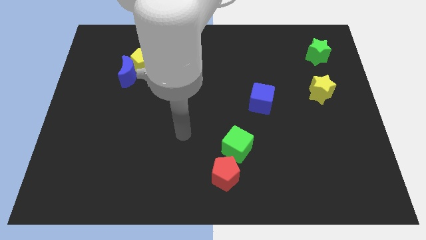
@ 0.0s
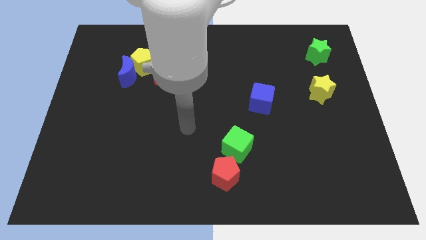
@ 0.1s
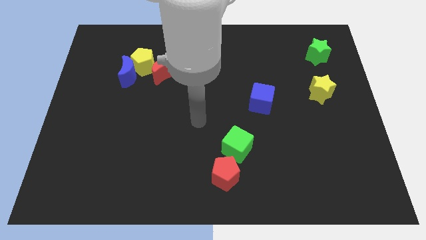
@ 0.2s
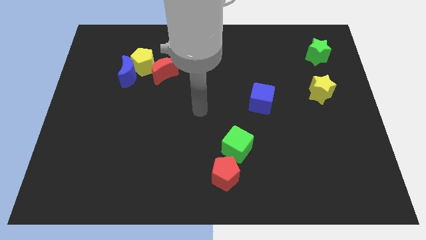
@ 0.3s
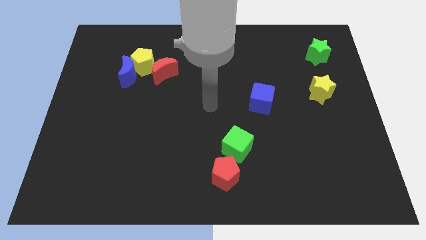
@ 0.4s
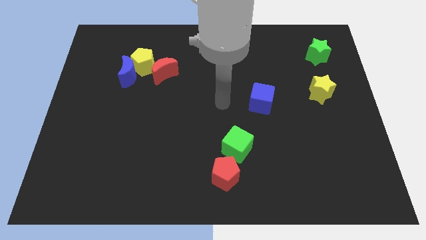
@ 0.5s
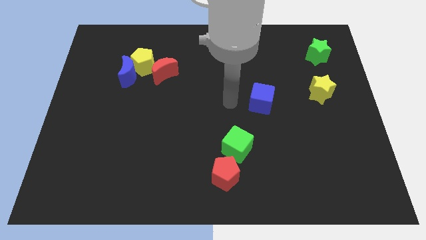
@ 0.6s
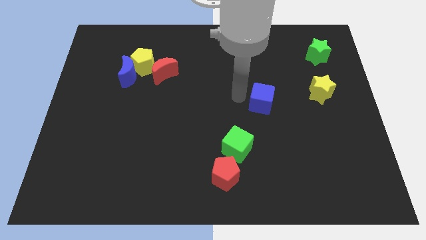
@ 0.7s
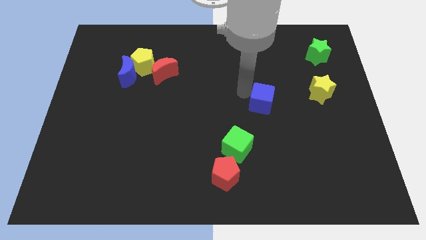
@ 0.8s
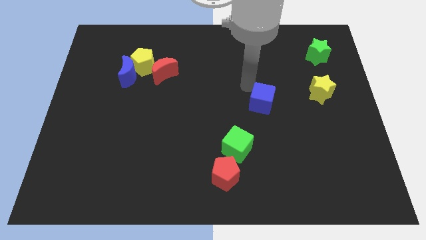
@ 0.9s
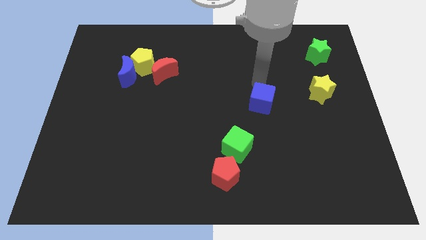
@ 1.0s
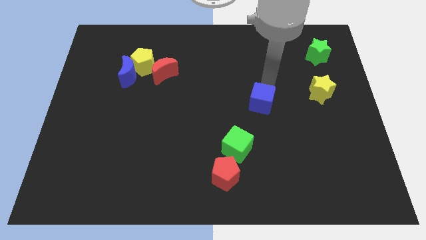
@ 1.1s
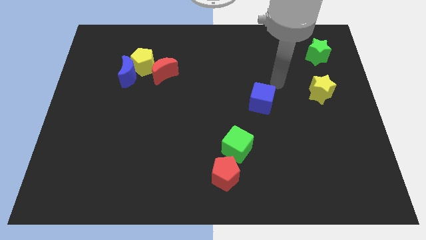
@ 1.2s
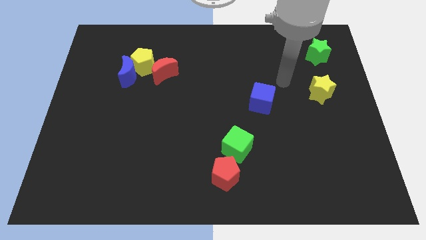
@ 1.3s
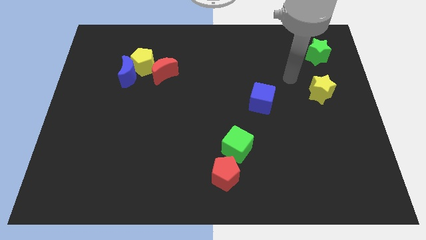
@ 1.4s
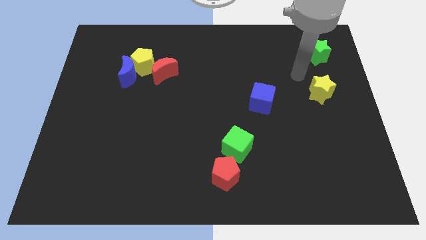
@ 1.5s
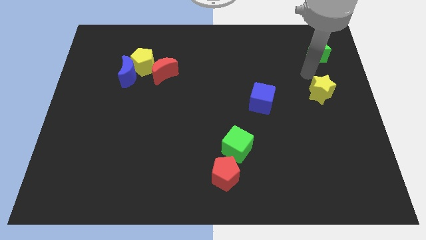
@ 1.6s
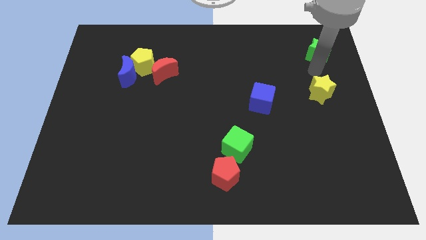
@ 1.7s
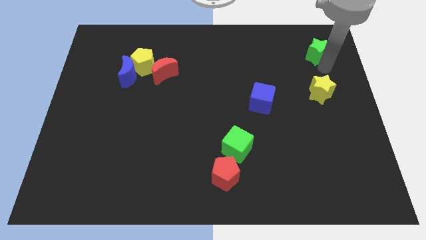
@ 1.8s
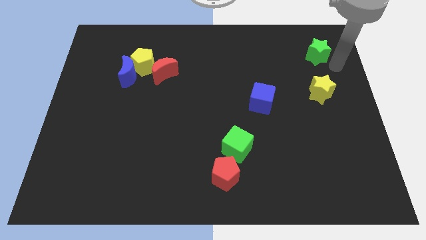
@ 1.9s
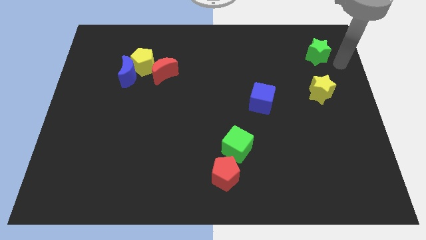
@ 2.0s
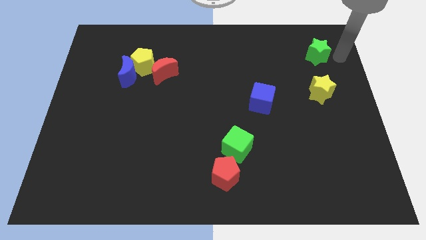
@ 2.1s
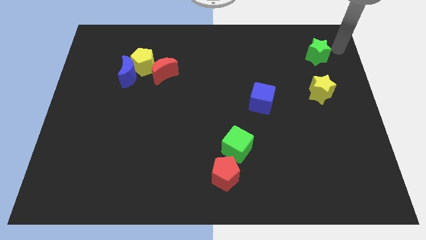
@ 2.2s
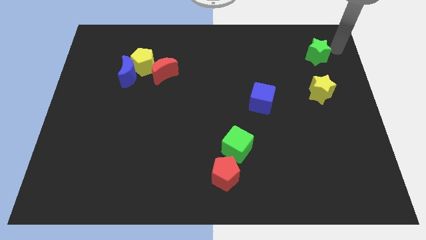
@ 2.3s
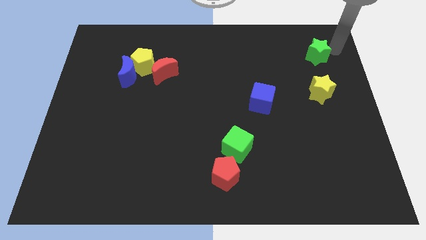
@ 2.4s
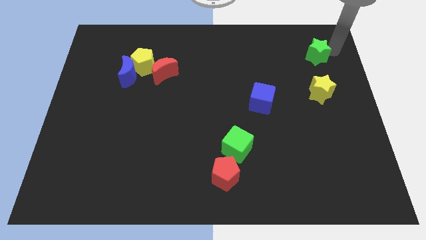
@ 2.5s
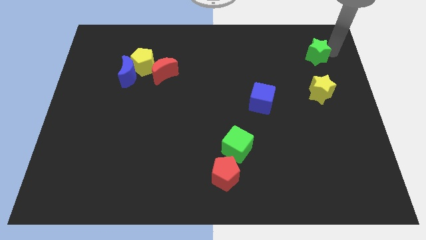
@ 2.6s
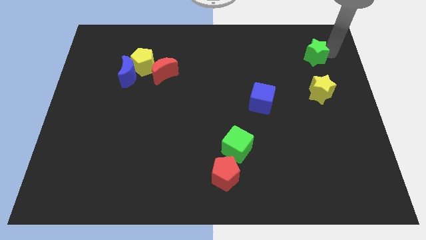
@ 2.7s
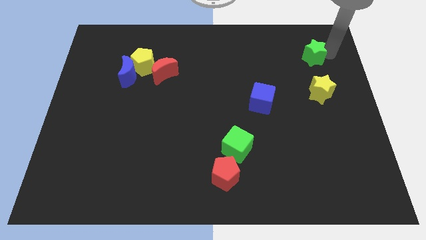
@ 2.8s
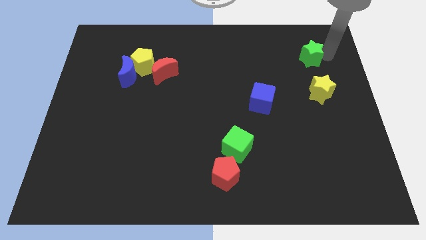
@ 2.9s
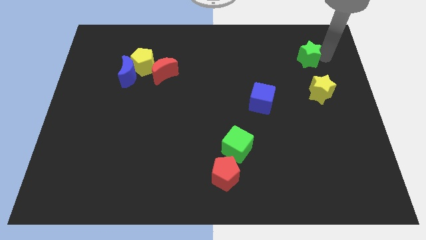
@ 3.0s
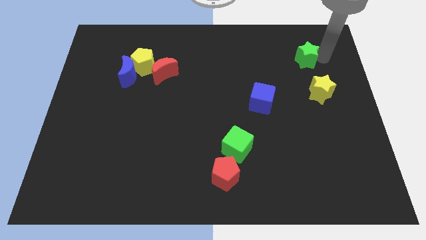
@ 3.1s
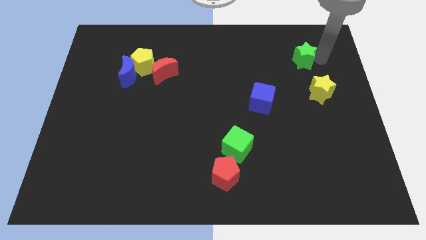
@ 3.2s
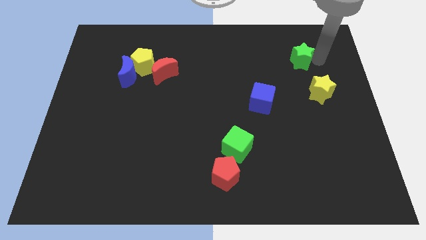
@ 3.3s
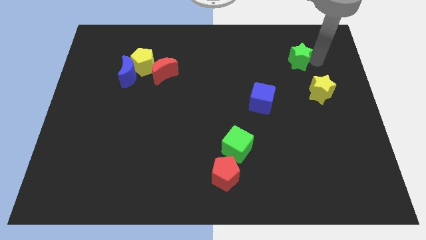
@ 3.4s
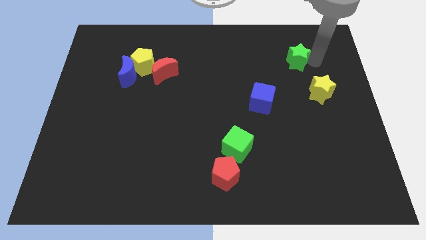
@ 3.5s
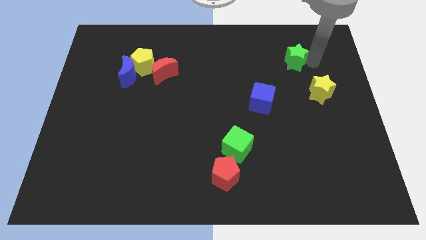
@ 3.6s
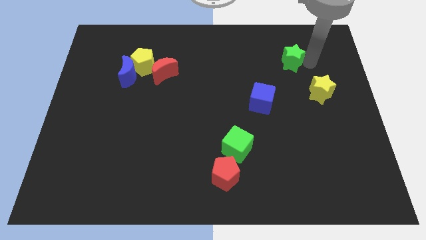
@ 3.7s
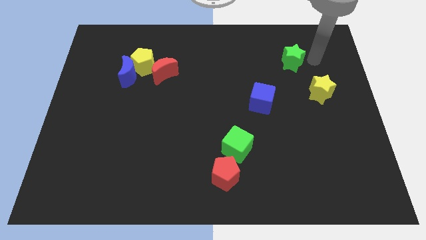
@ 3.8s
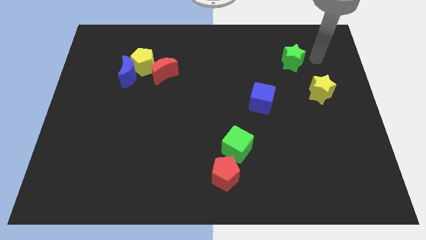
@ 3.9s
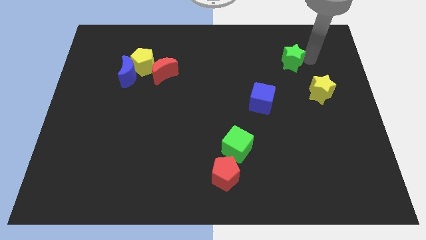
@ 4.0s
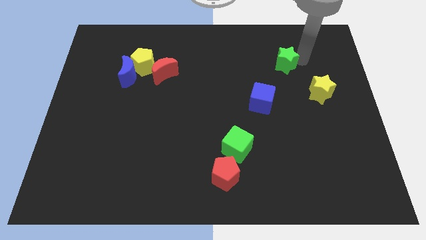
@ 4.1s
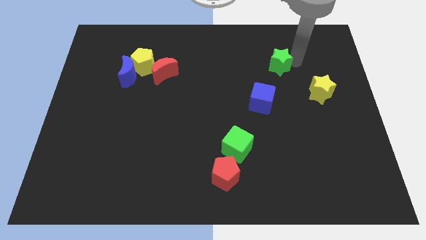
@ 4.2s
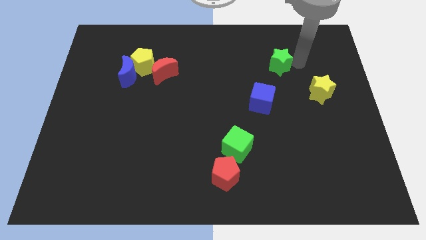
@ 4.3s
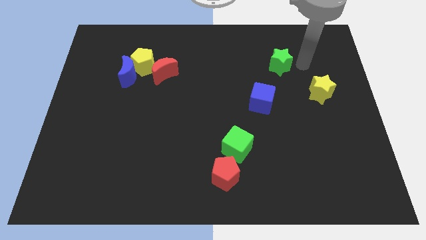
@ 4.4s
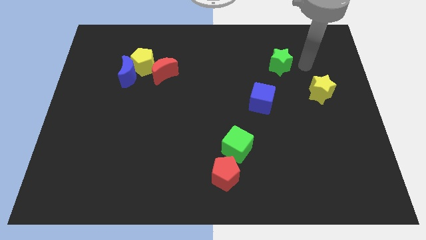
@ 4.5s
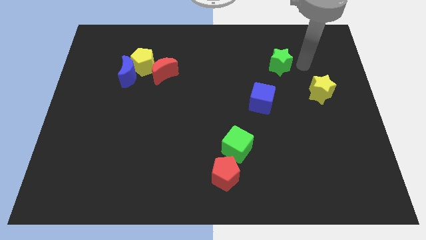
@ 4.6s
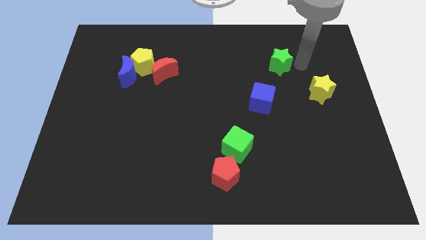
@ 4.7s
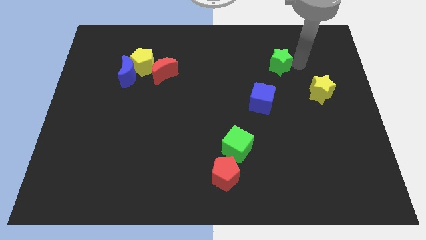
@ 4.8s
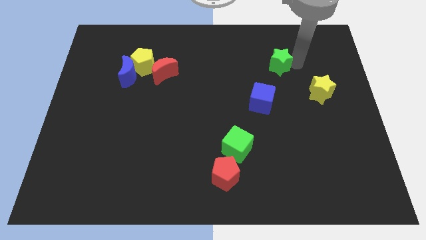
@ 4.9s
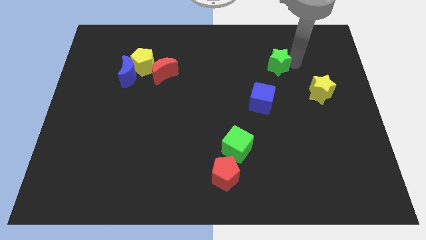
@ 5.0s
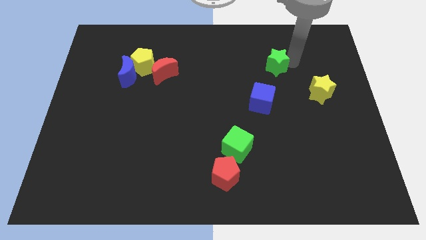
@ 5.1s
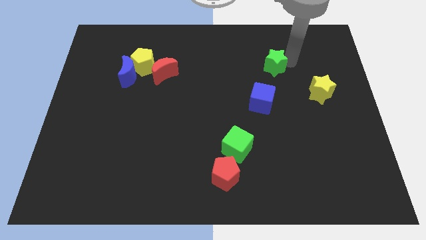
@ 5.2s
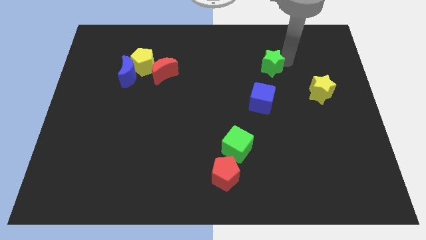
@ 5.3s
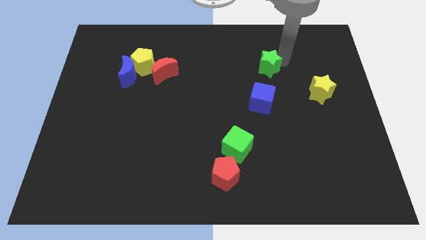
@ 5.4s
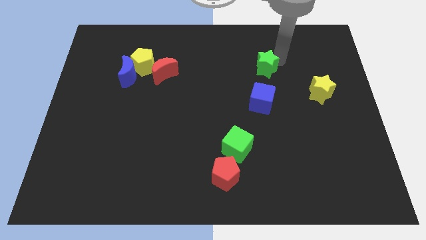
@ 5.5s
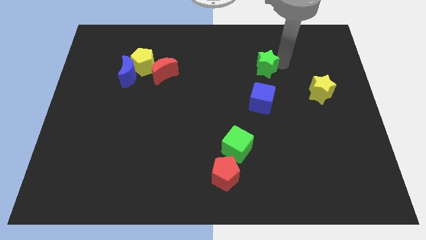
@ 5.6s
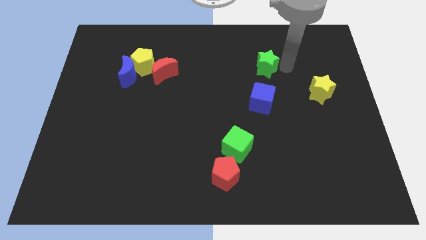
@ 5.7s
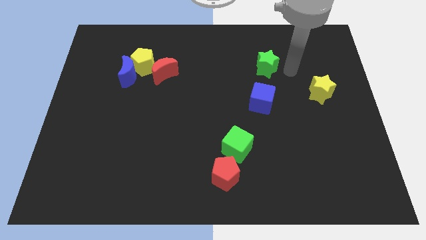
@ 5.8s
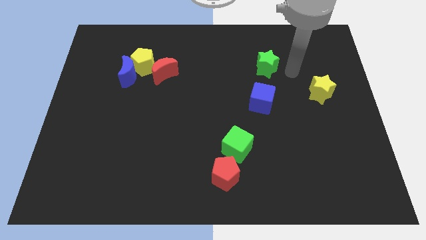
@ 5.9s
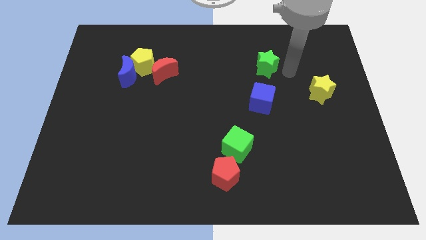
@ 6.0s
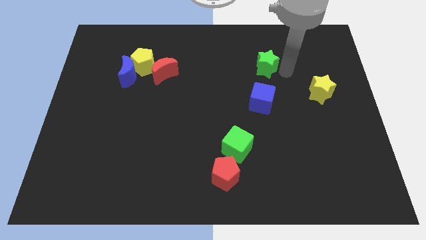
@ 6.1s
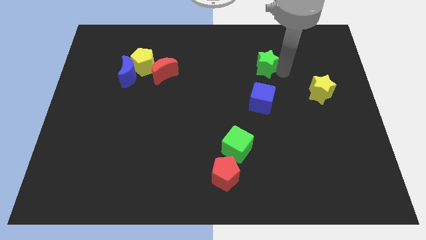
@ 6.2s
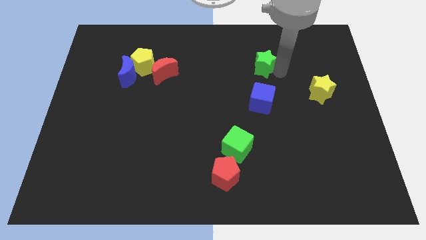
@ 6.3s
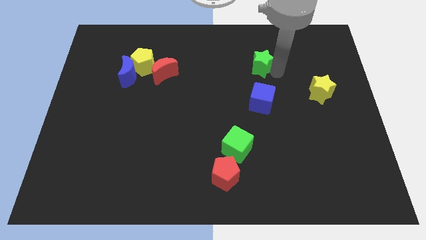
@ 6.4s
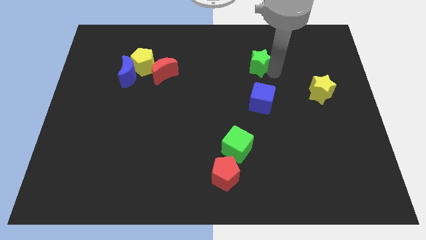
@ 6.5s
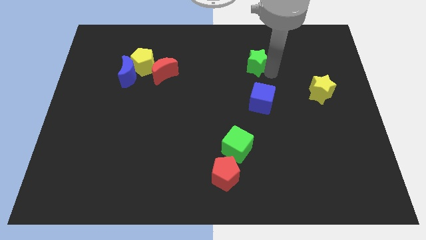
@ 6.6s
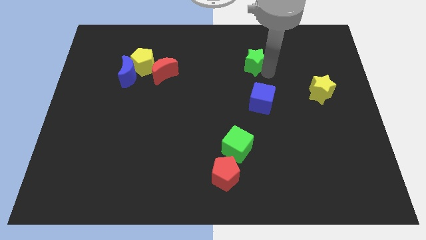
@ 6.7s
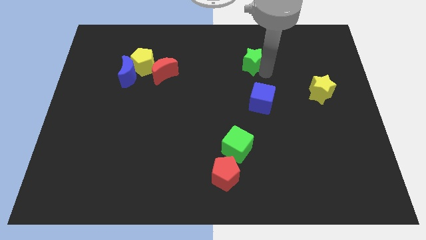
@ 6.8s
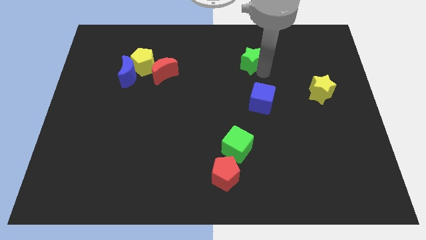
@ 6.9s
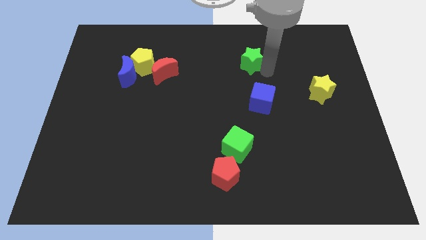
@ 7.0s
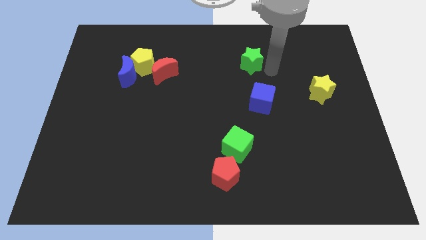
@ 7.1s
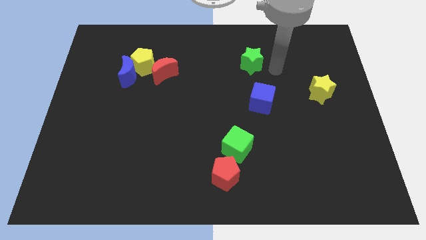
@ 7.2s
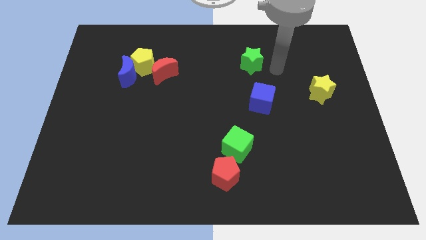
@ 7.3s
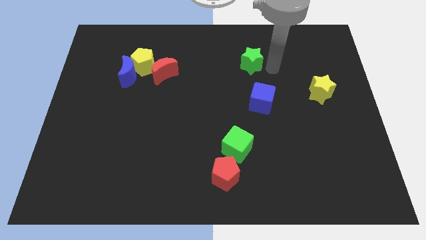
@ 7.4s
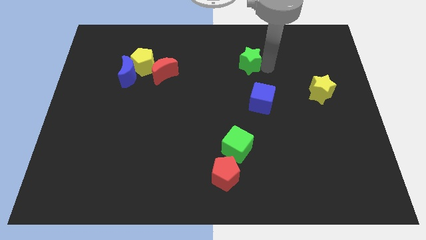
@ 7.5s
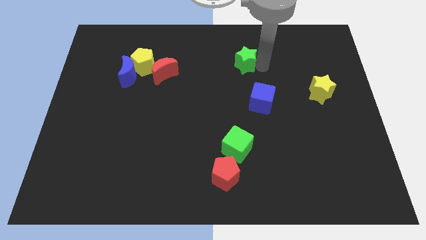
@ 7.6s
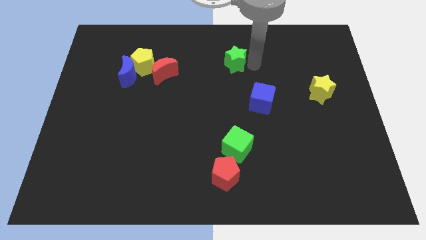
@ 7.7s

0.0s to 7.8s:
slide the green star to the left
